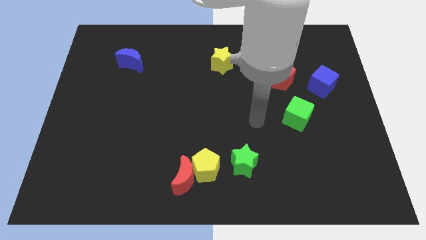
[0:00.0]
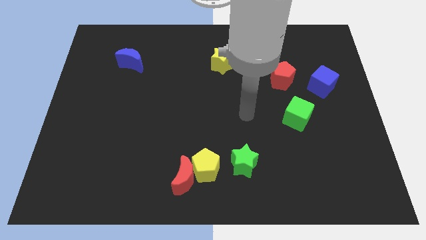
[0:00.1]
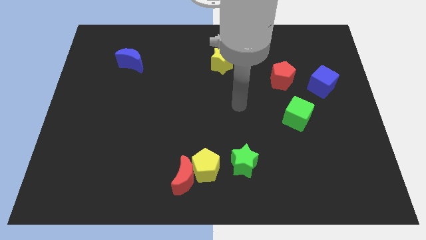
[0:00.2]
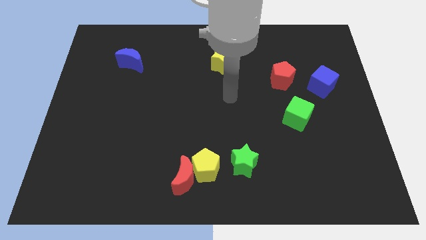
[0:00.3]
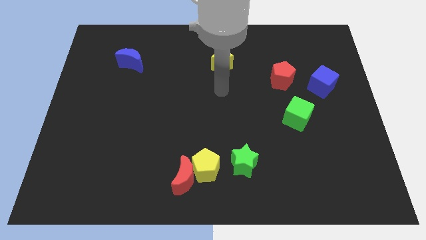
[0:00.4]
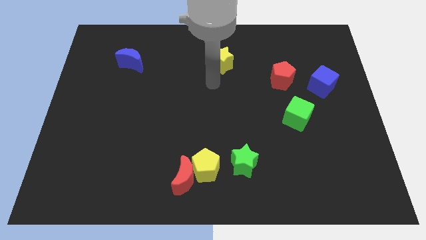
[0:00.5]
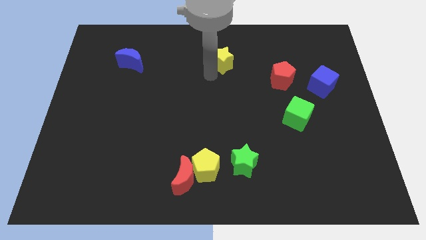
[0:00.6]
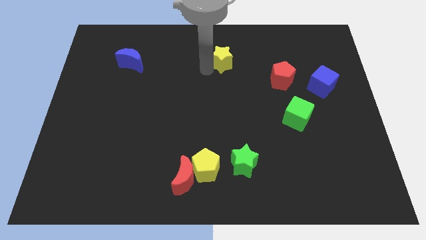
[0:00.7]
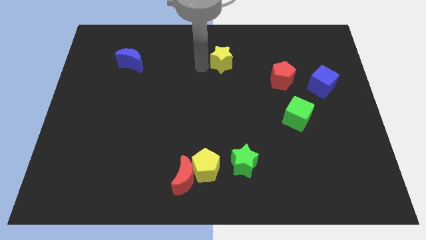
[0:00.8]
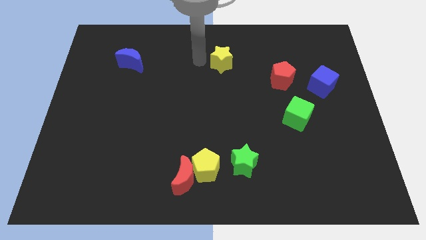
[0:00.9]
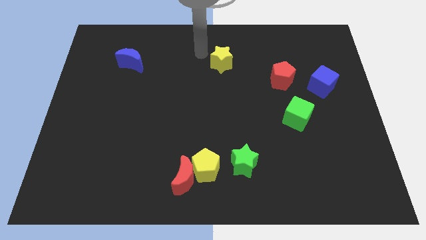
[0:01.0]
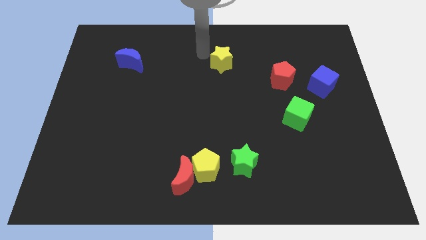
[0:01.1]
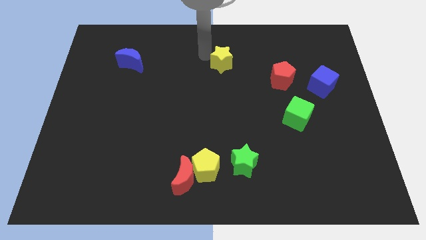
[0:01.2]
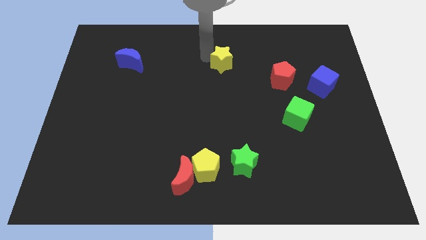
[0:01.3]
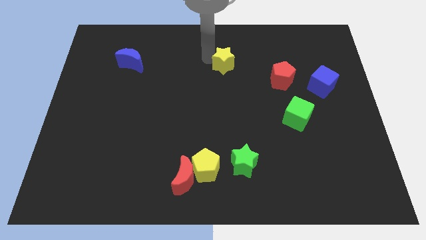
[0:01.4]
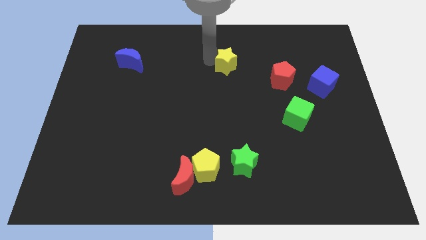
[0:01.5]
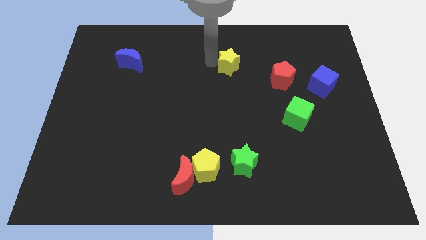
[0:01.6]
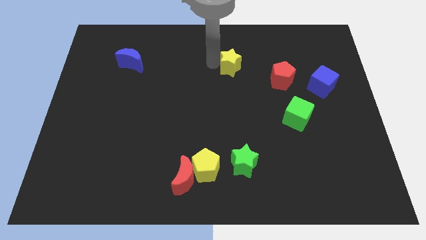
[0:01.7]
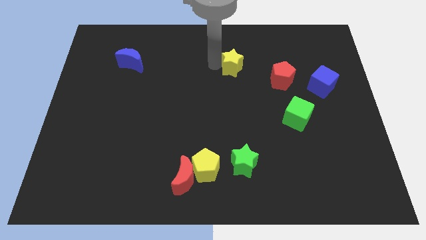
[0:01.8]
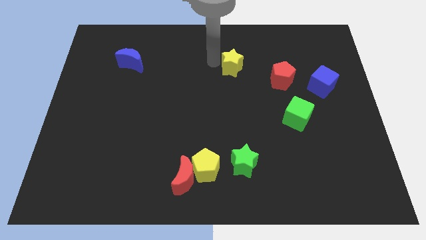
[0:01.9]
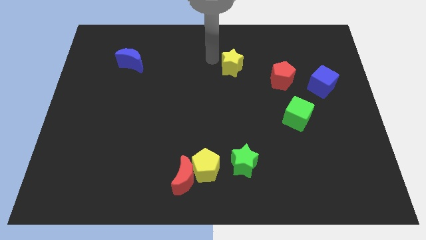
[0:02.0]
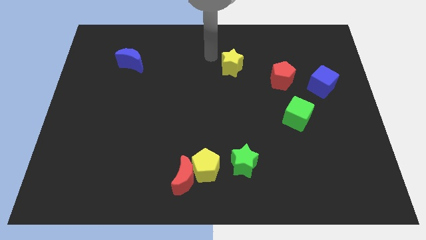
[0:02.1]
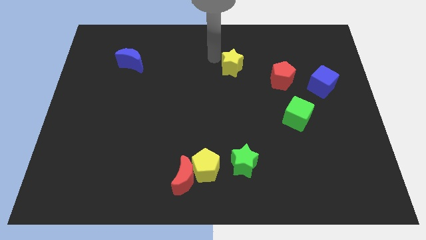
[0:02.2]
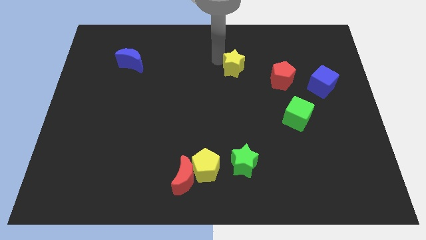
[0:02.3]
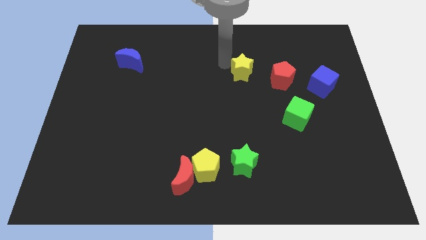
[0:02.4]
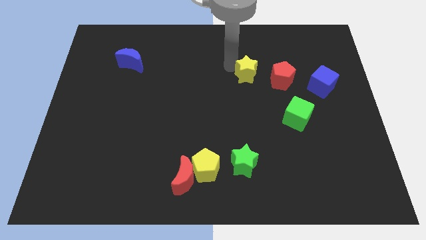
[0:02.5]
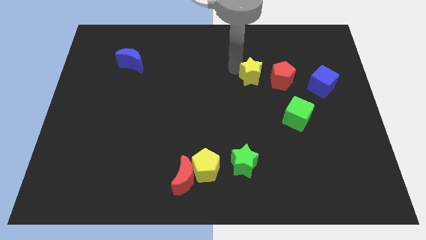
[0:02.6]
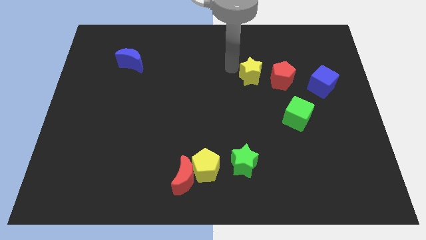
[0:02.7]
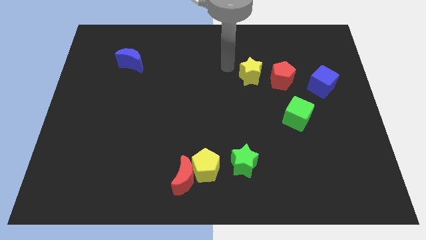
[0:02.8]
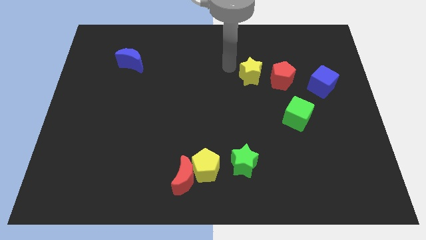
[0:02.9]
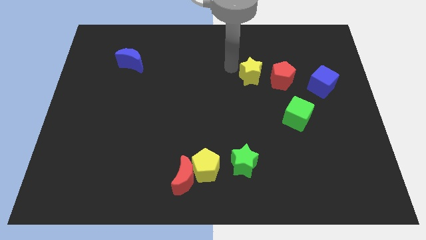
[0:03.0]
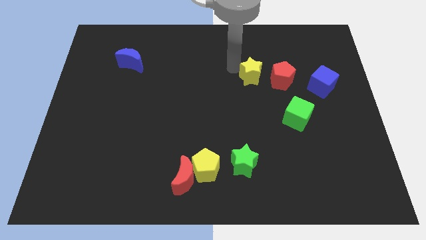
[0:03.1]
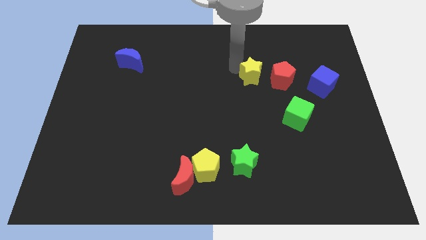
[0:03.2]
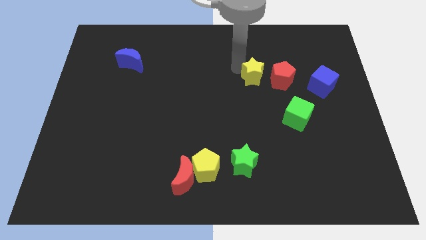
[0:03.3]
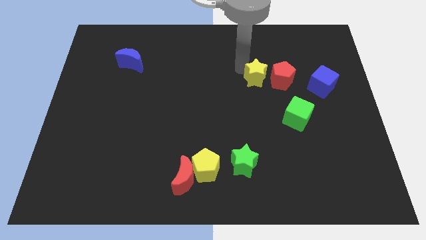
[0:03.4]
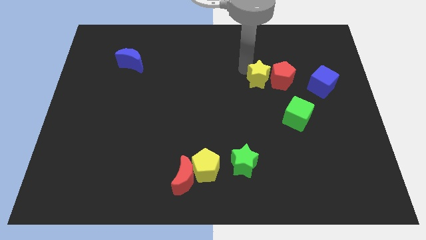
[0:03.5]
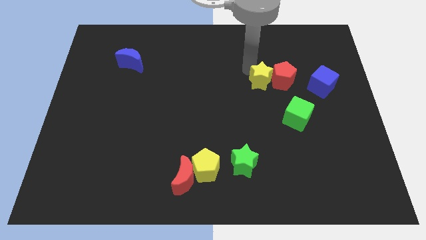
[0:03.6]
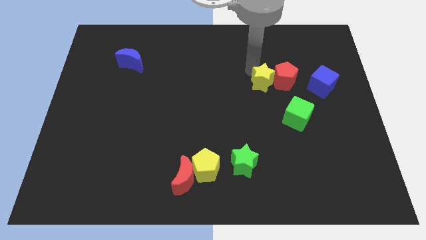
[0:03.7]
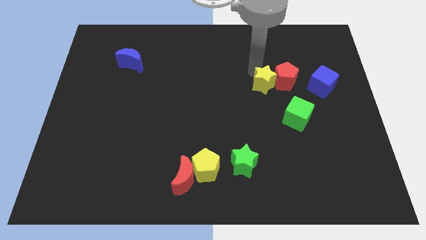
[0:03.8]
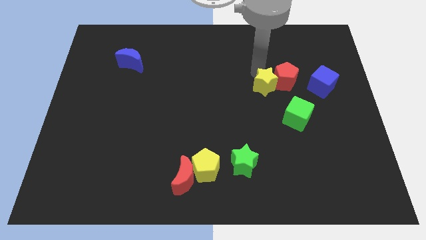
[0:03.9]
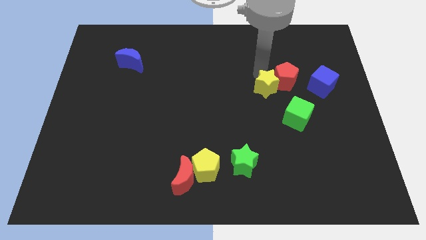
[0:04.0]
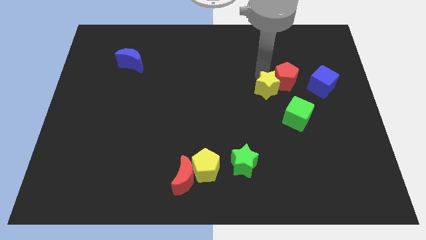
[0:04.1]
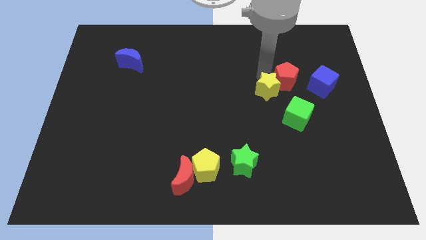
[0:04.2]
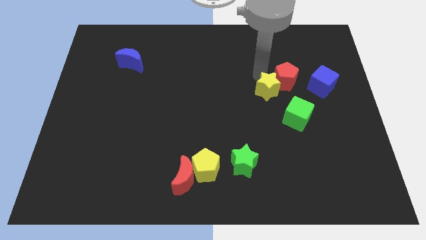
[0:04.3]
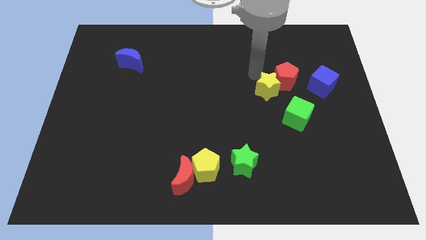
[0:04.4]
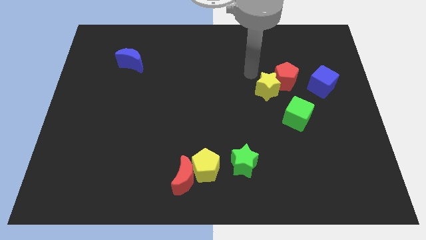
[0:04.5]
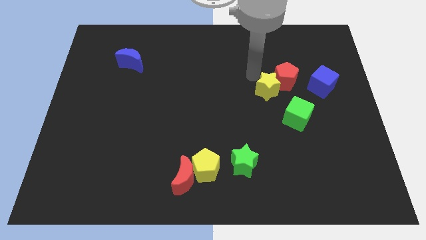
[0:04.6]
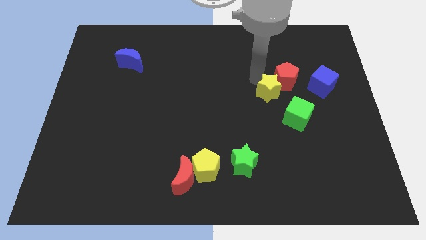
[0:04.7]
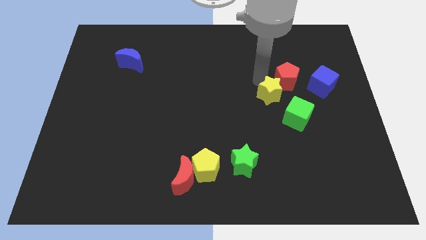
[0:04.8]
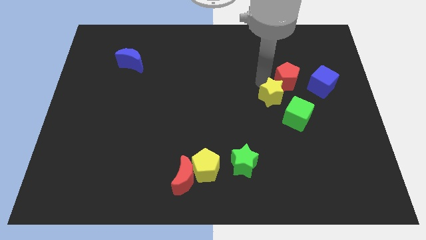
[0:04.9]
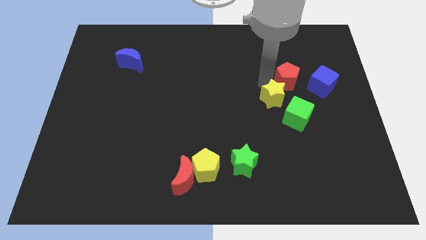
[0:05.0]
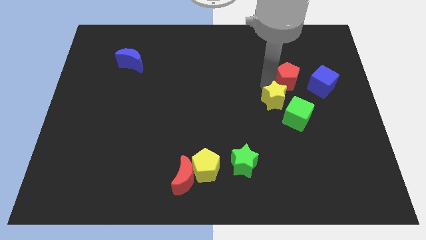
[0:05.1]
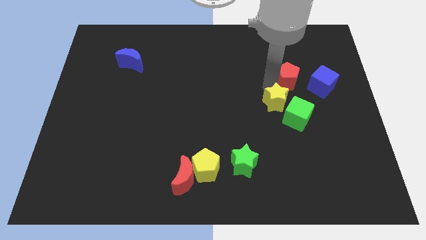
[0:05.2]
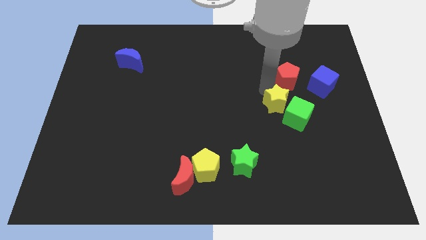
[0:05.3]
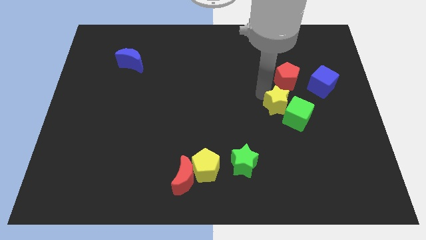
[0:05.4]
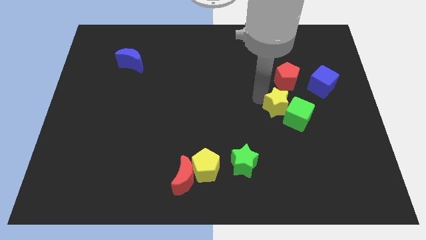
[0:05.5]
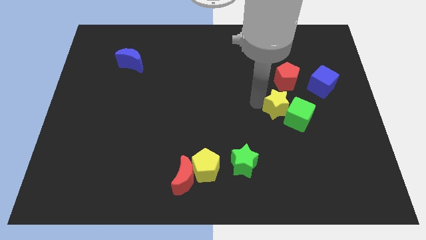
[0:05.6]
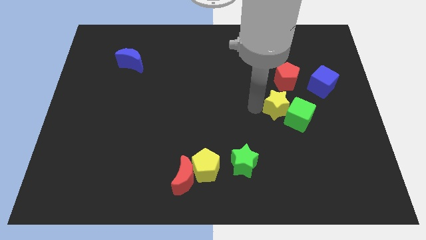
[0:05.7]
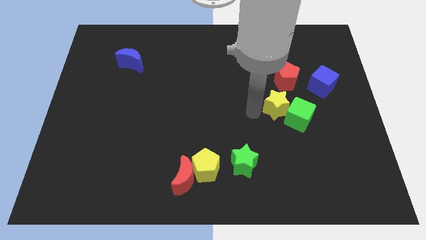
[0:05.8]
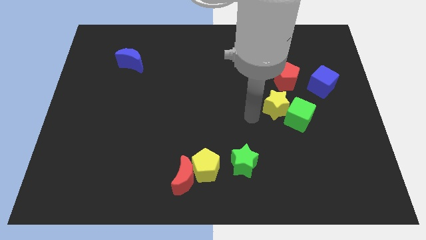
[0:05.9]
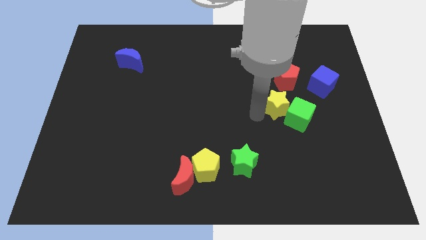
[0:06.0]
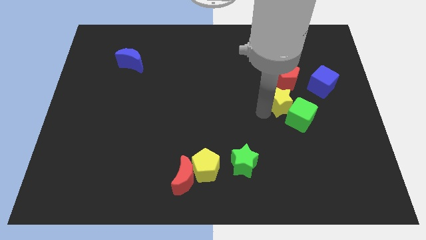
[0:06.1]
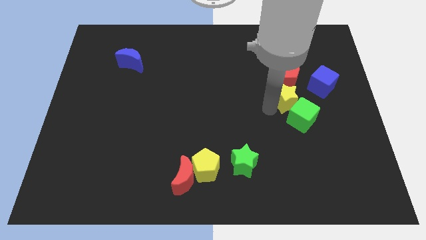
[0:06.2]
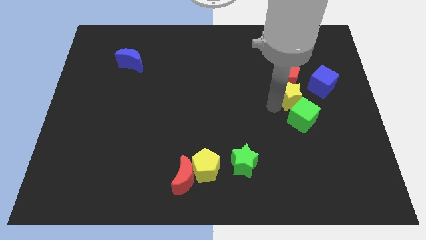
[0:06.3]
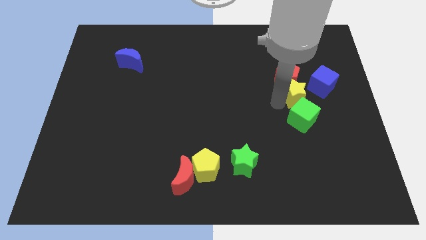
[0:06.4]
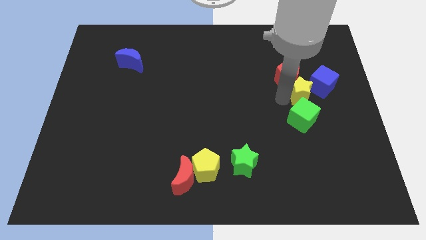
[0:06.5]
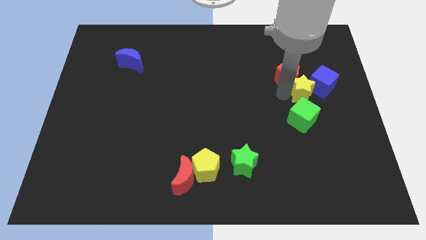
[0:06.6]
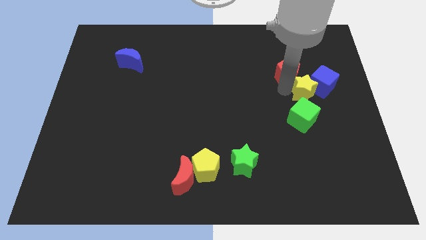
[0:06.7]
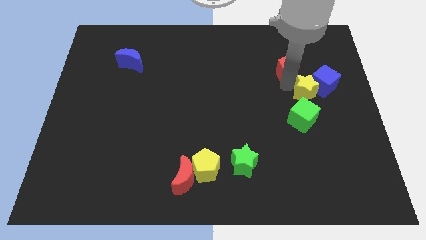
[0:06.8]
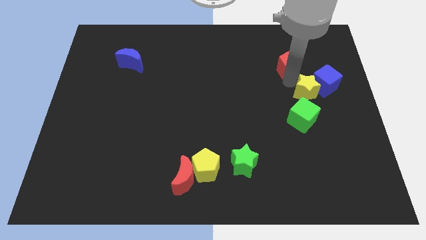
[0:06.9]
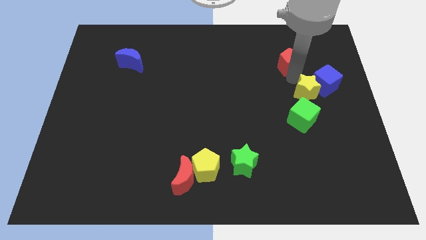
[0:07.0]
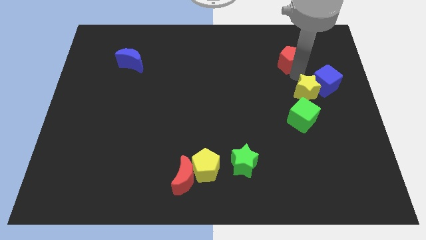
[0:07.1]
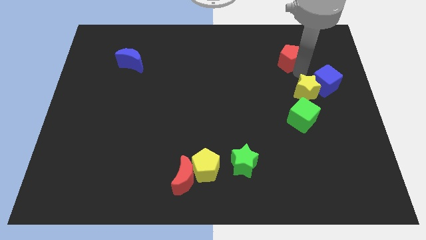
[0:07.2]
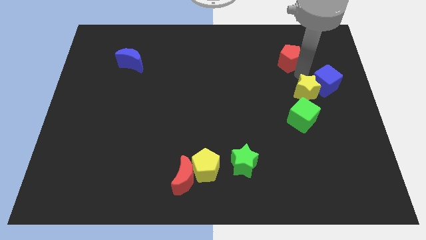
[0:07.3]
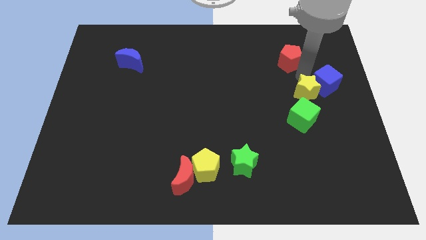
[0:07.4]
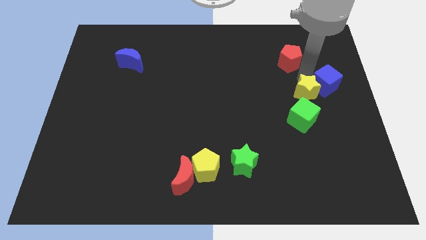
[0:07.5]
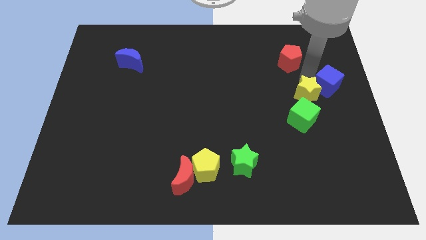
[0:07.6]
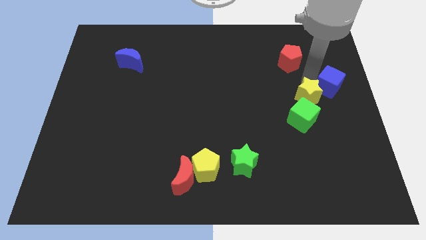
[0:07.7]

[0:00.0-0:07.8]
move the yellow star diagonally downwards and right

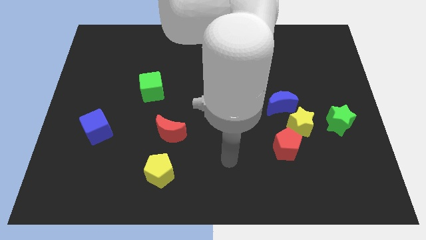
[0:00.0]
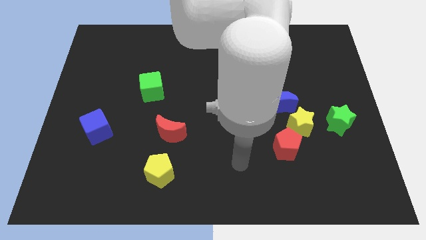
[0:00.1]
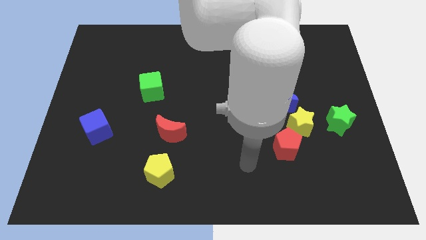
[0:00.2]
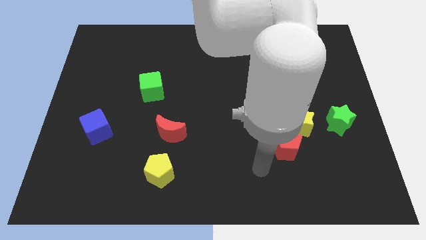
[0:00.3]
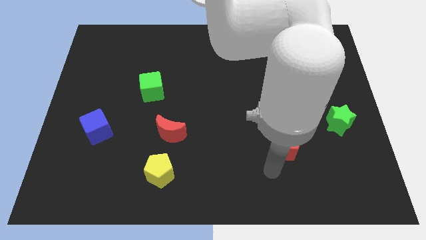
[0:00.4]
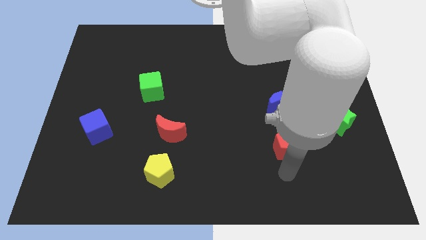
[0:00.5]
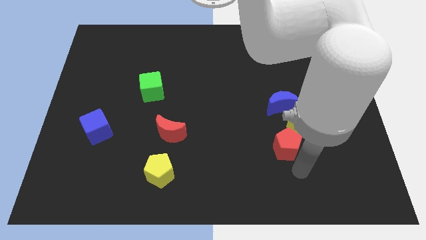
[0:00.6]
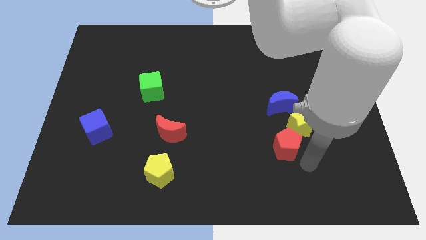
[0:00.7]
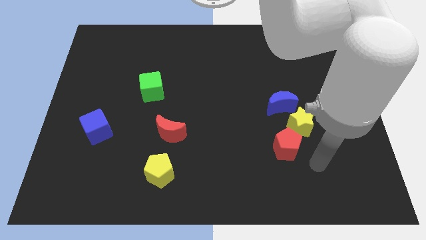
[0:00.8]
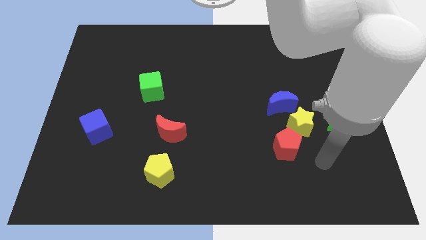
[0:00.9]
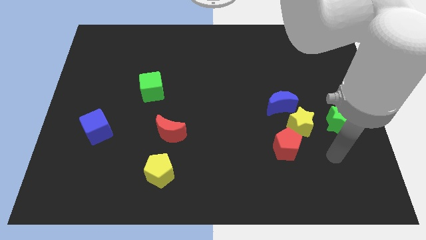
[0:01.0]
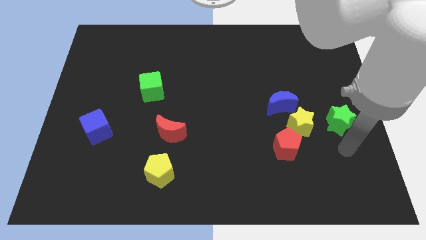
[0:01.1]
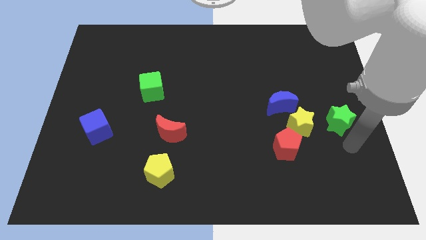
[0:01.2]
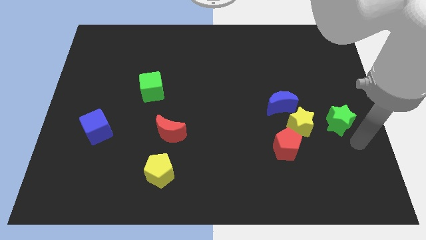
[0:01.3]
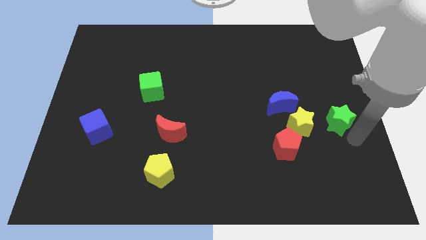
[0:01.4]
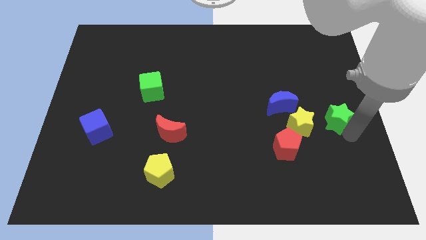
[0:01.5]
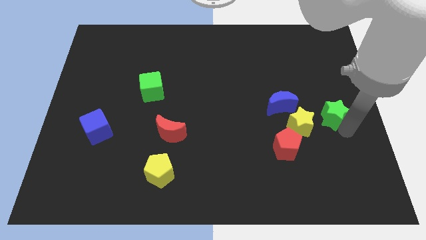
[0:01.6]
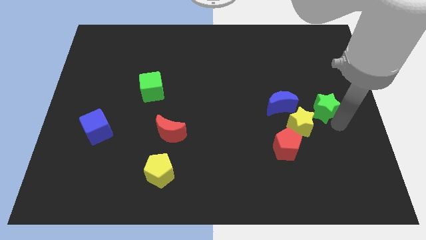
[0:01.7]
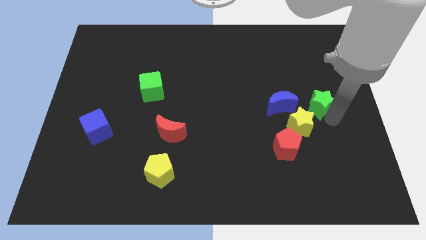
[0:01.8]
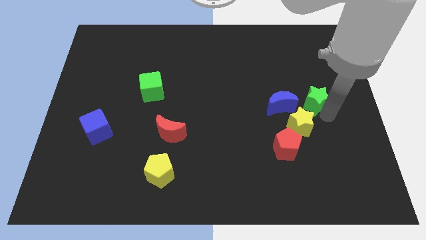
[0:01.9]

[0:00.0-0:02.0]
slightly push the green star up and to the left diagonally
